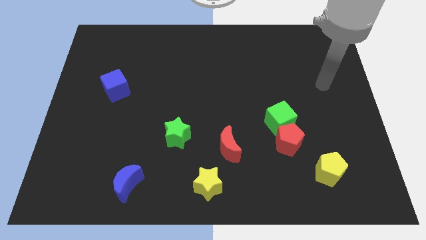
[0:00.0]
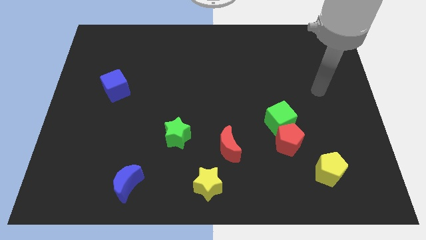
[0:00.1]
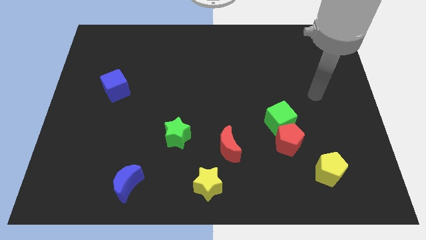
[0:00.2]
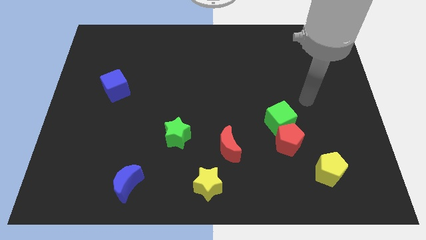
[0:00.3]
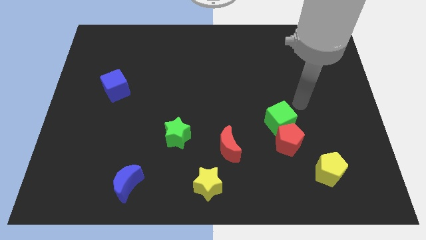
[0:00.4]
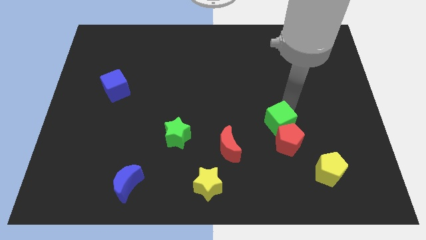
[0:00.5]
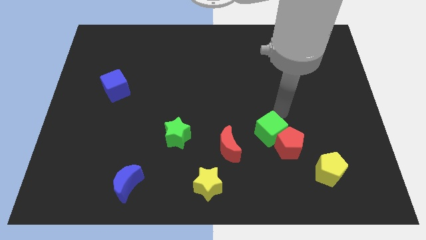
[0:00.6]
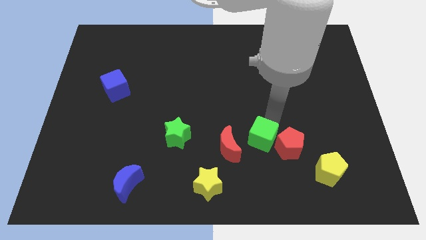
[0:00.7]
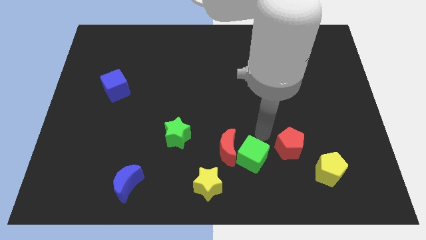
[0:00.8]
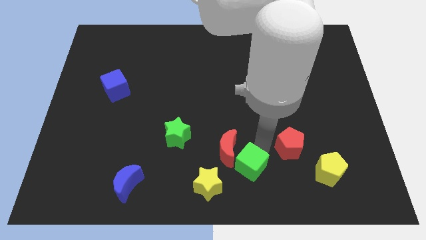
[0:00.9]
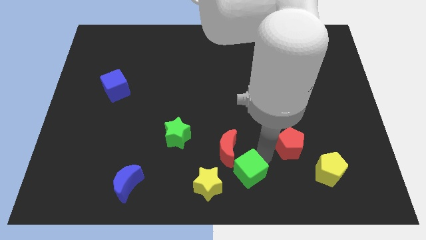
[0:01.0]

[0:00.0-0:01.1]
move the red pentagon away from the green cube

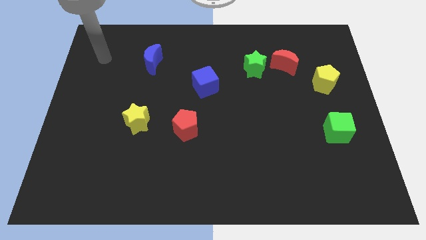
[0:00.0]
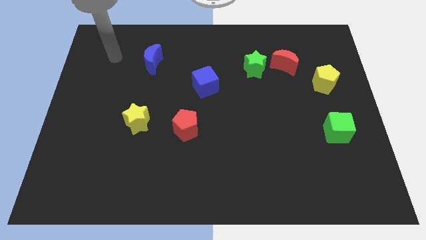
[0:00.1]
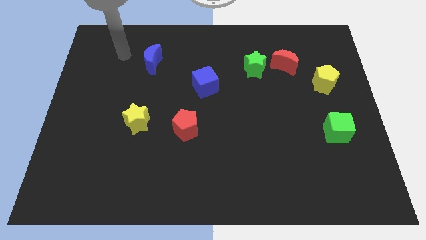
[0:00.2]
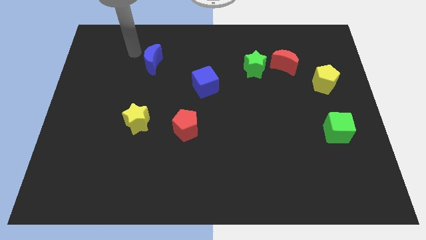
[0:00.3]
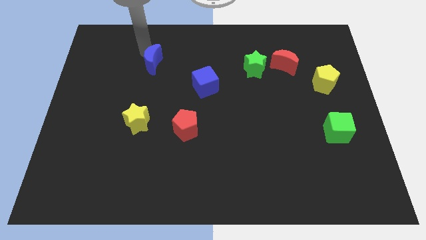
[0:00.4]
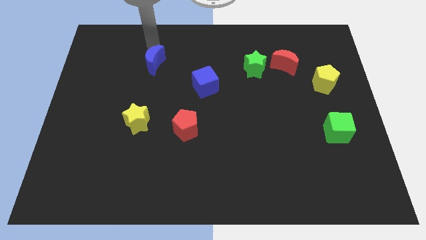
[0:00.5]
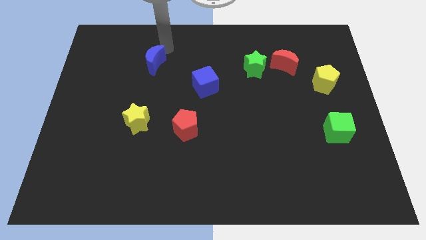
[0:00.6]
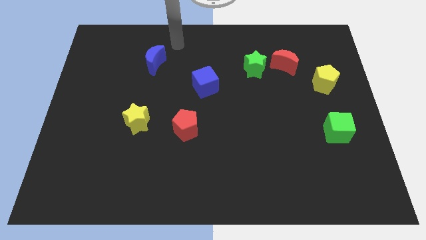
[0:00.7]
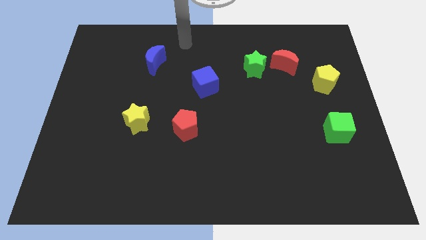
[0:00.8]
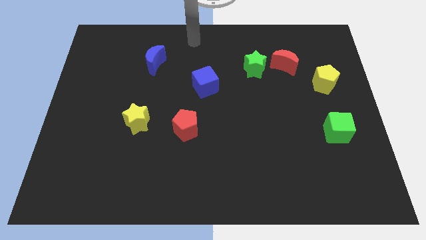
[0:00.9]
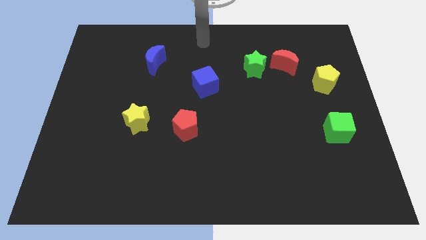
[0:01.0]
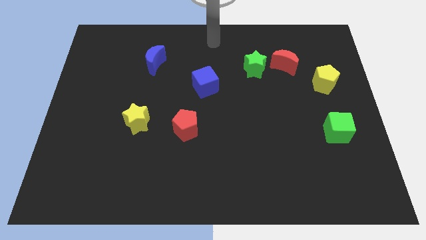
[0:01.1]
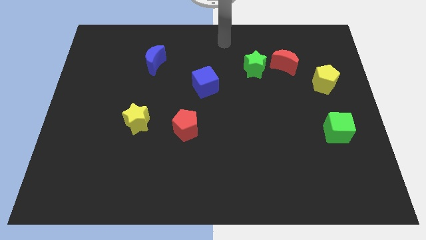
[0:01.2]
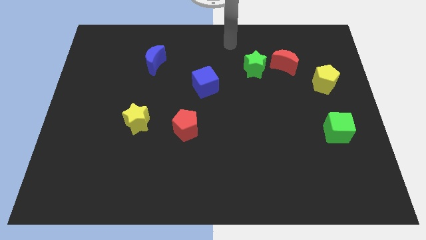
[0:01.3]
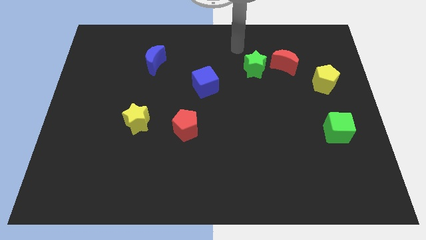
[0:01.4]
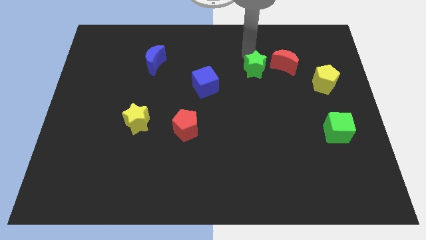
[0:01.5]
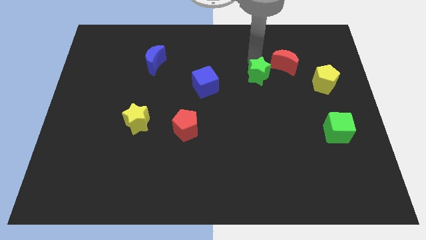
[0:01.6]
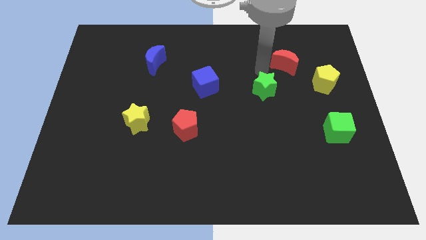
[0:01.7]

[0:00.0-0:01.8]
separate the red moon from the green star

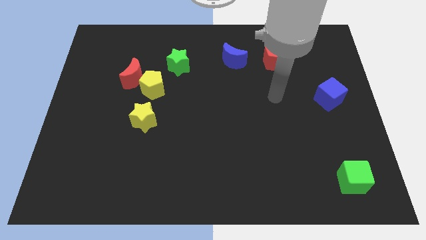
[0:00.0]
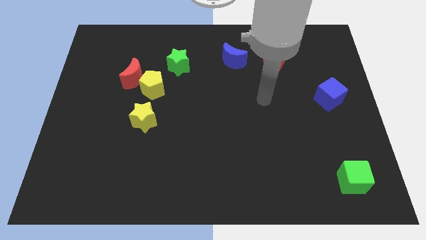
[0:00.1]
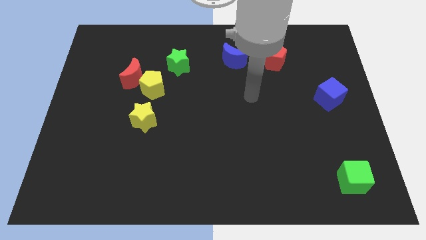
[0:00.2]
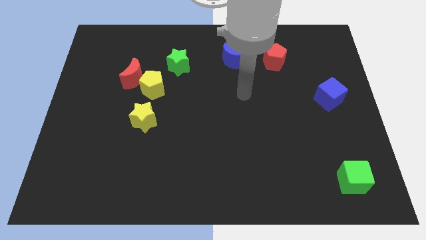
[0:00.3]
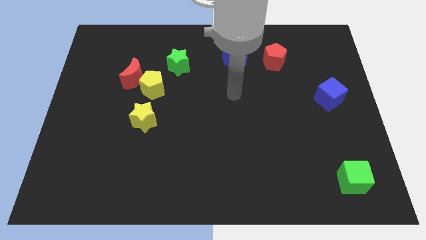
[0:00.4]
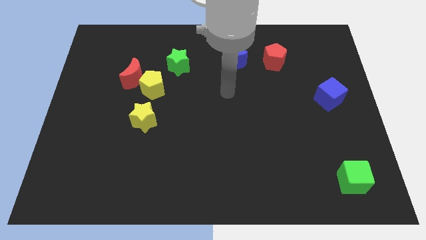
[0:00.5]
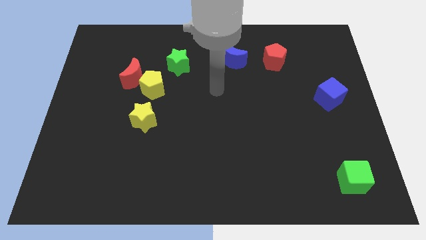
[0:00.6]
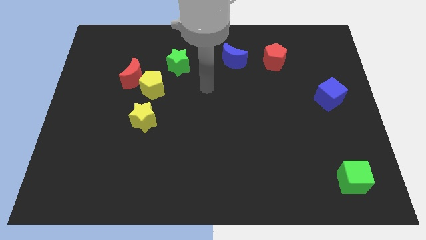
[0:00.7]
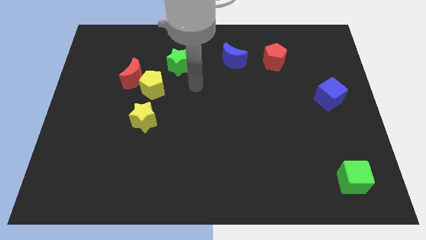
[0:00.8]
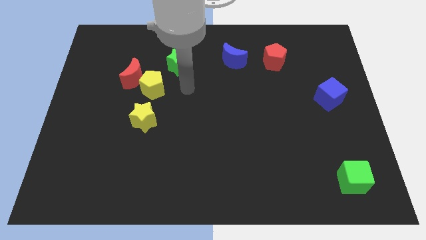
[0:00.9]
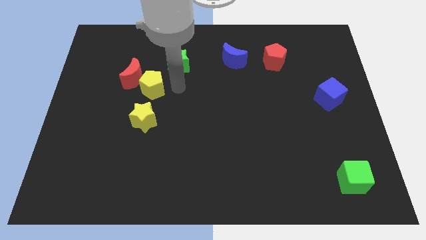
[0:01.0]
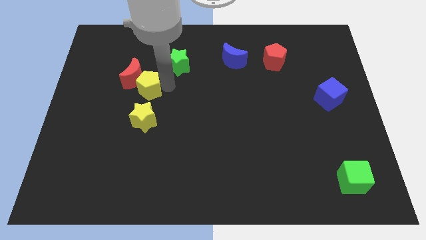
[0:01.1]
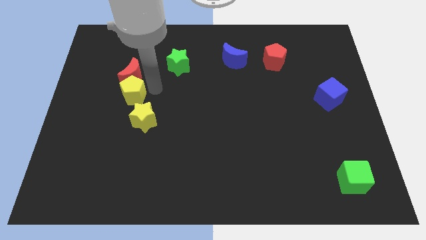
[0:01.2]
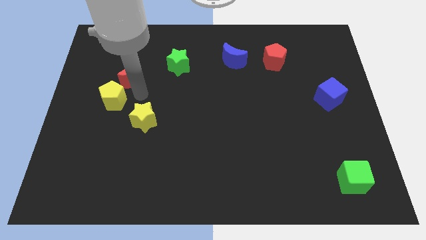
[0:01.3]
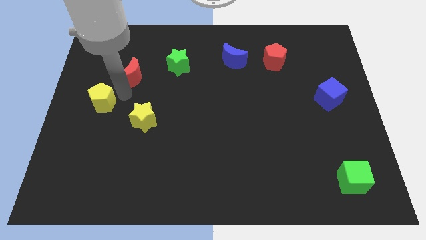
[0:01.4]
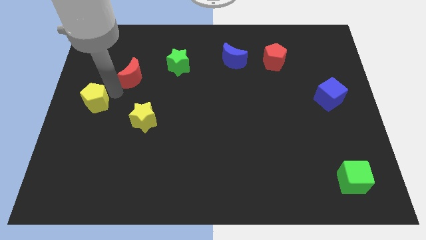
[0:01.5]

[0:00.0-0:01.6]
move the red moon away from the yellow pentagon

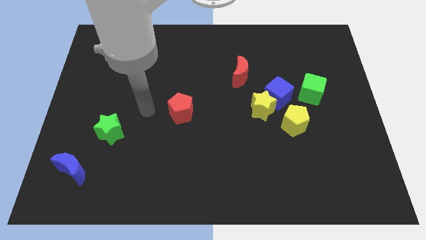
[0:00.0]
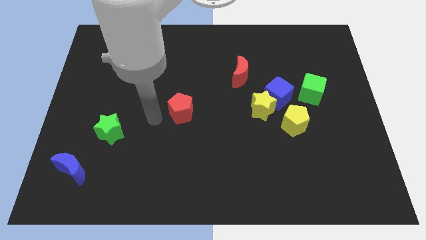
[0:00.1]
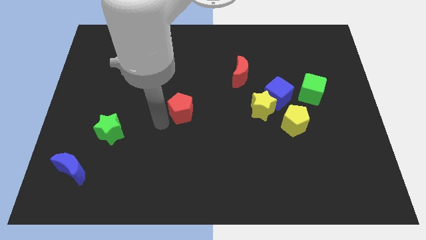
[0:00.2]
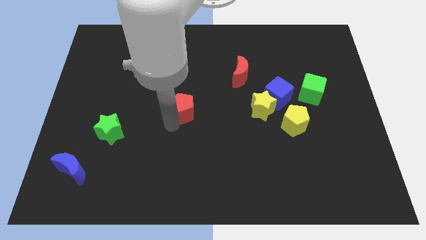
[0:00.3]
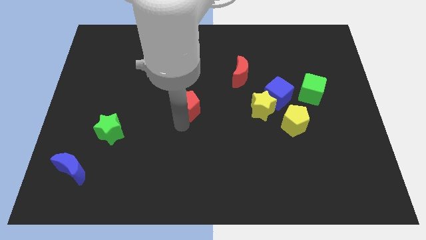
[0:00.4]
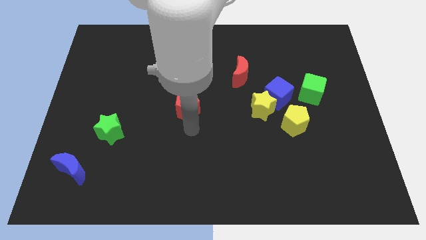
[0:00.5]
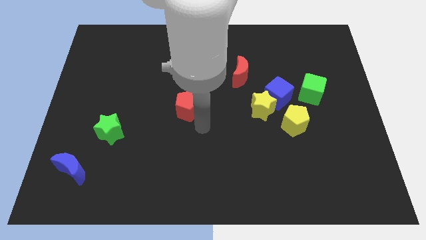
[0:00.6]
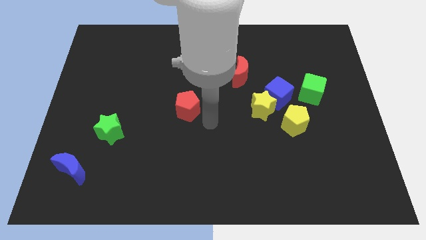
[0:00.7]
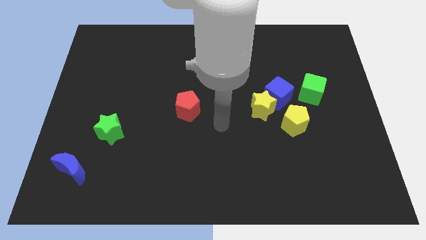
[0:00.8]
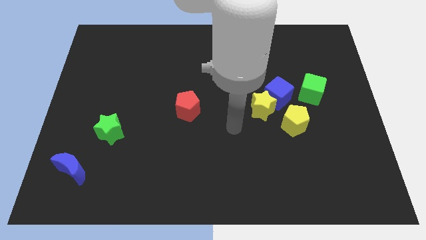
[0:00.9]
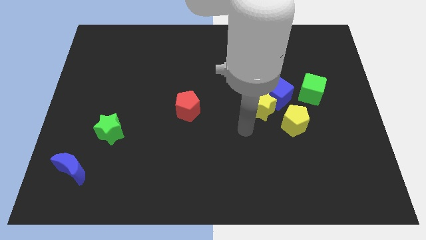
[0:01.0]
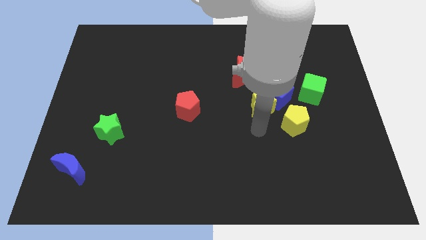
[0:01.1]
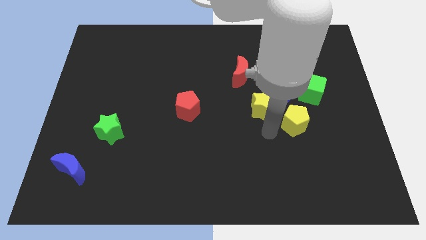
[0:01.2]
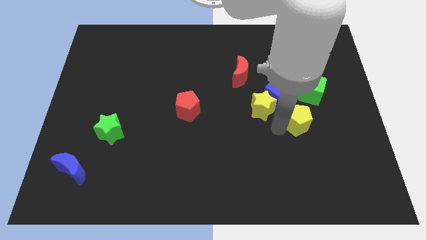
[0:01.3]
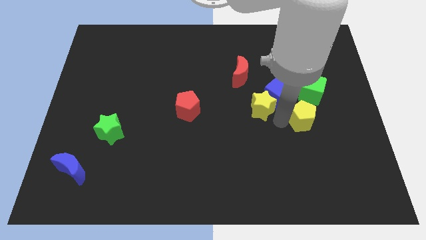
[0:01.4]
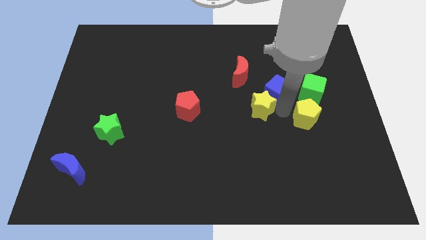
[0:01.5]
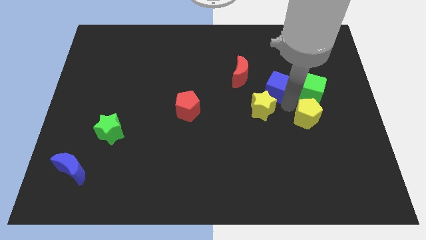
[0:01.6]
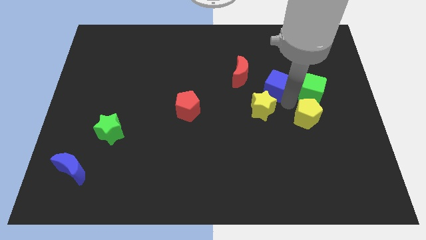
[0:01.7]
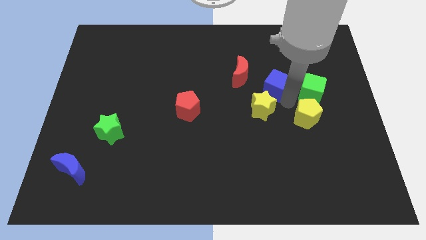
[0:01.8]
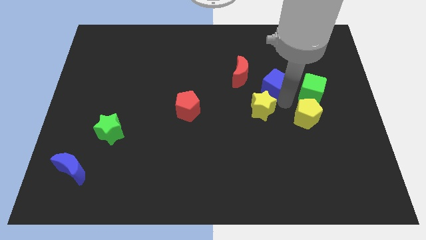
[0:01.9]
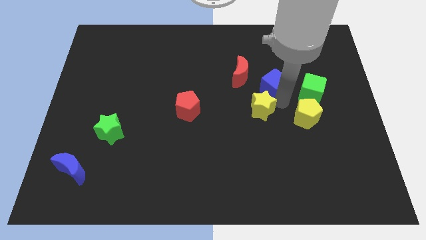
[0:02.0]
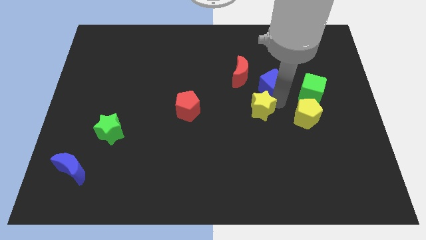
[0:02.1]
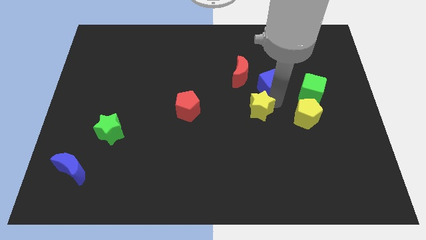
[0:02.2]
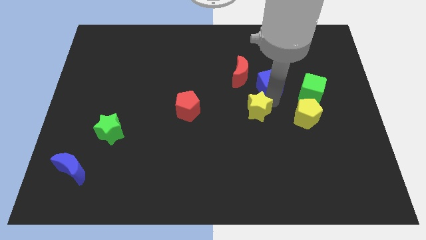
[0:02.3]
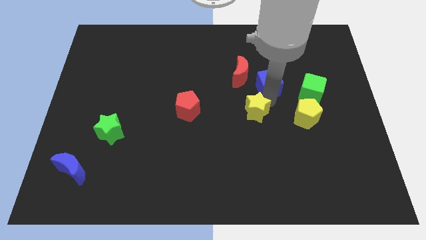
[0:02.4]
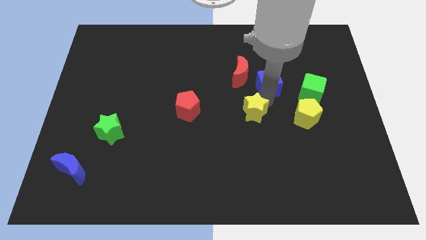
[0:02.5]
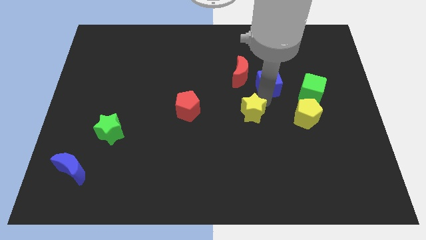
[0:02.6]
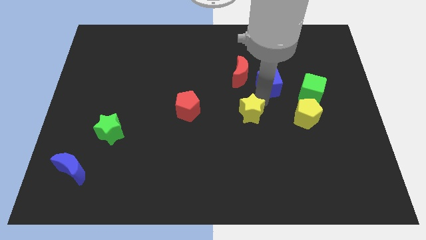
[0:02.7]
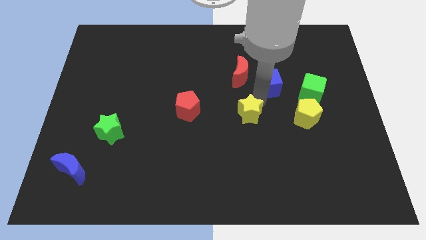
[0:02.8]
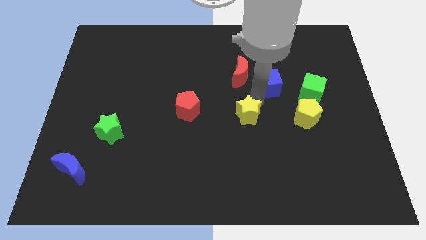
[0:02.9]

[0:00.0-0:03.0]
move the yellow star away from the blue cube and yellow pentagon

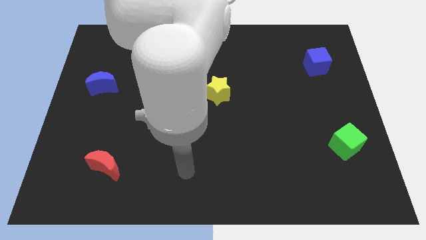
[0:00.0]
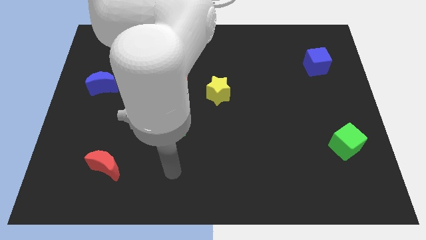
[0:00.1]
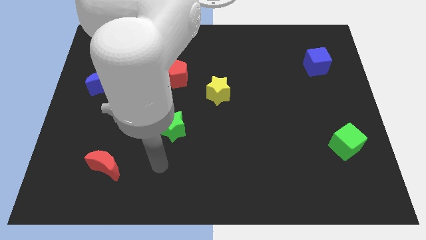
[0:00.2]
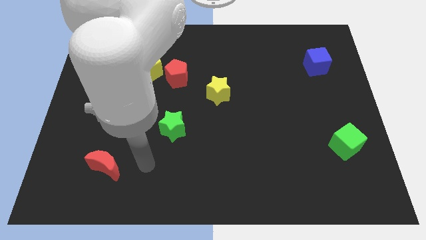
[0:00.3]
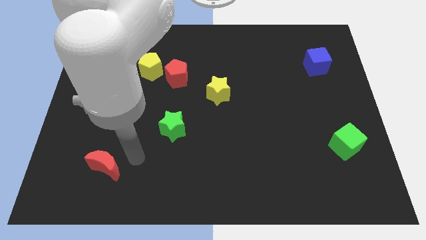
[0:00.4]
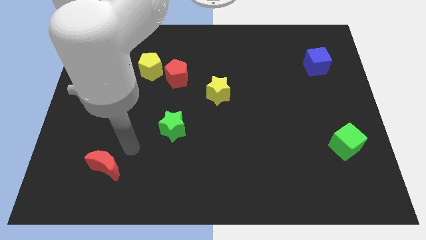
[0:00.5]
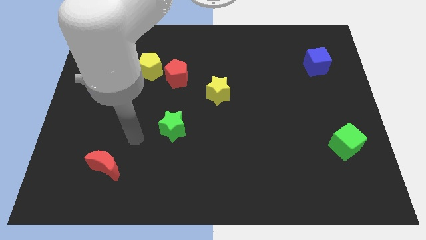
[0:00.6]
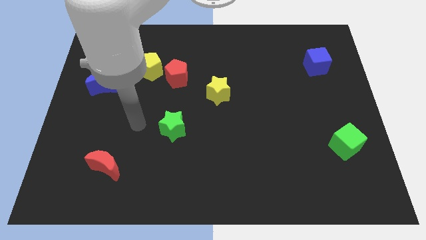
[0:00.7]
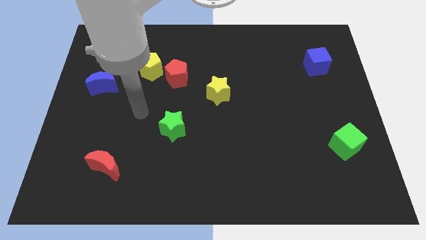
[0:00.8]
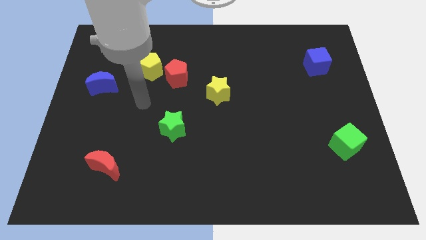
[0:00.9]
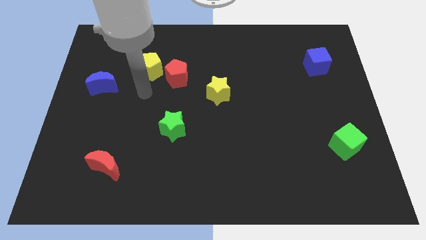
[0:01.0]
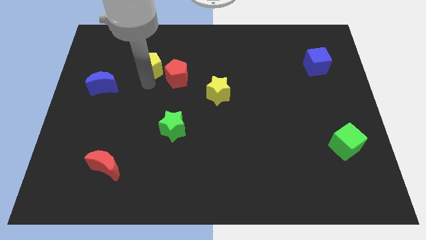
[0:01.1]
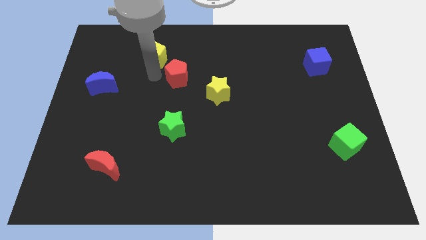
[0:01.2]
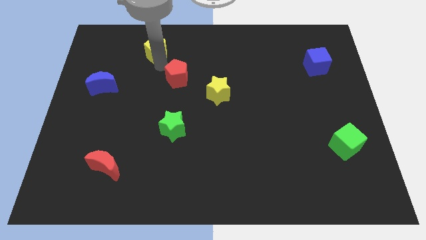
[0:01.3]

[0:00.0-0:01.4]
pull the red pentagon apart from the yellow pentagon

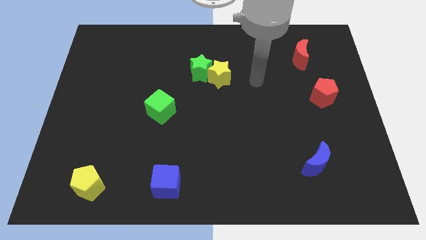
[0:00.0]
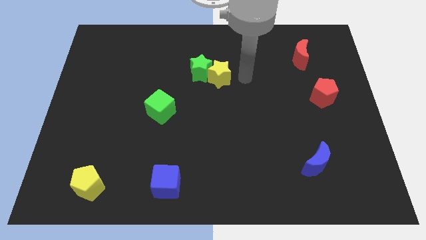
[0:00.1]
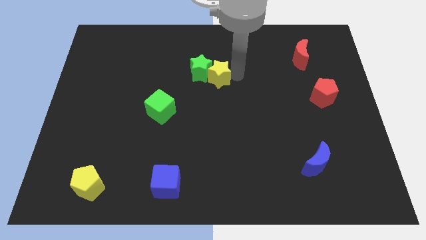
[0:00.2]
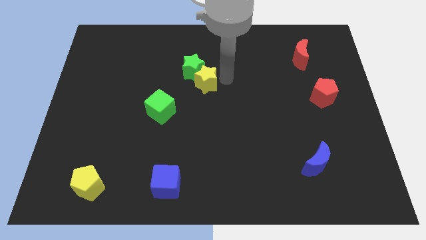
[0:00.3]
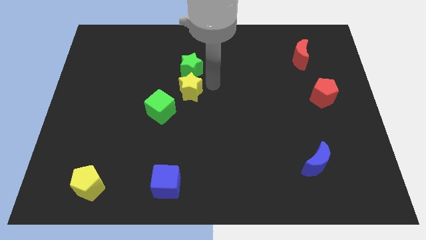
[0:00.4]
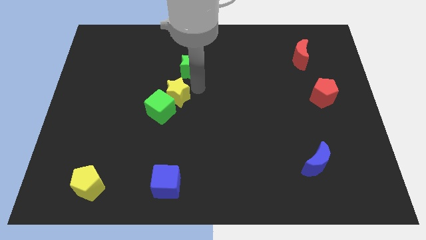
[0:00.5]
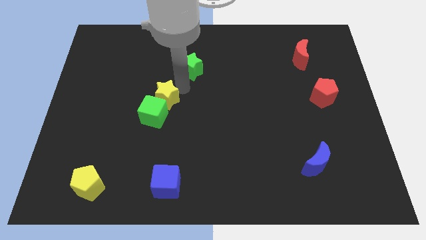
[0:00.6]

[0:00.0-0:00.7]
move the green star away from the yellow star
